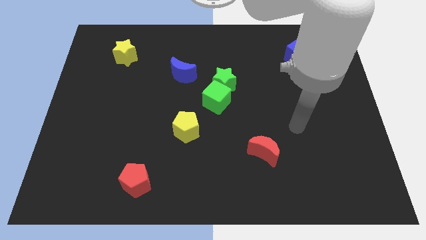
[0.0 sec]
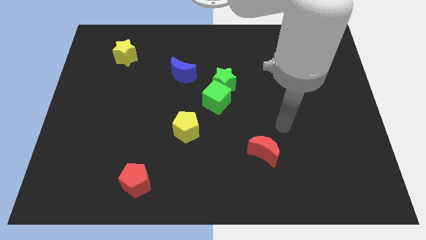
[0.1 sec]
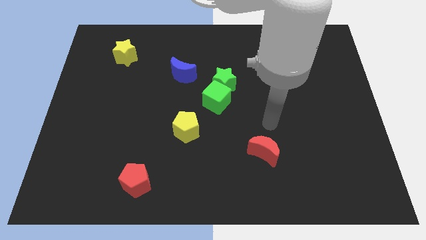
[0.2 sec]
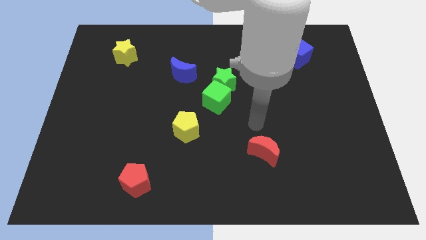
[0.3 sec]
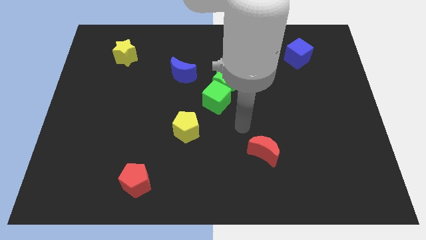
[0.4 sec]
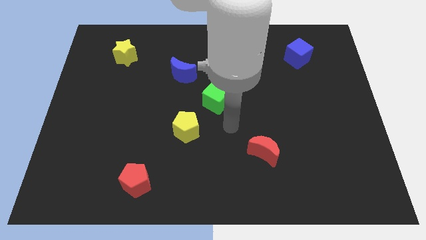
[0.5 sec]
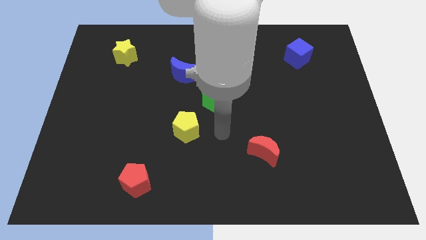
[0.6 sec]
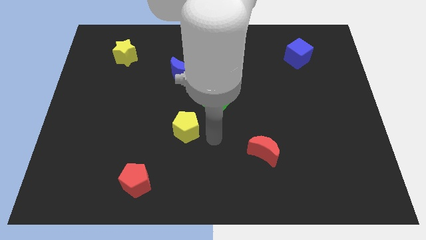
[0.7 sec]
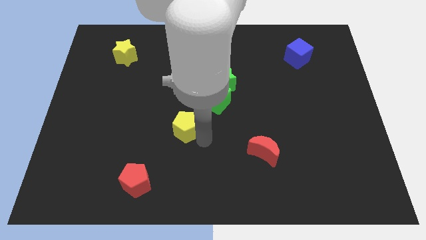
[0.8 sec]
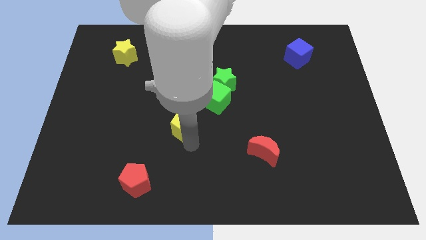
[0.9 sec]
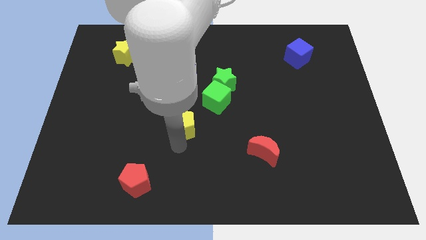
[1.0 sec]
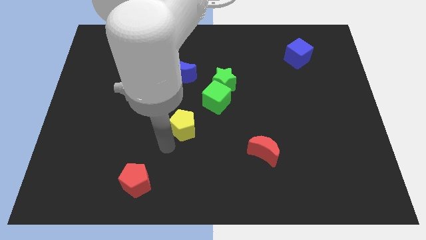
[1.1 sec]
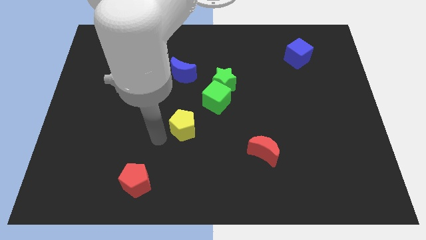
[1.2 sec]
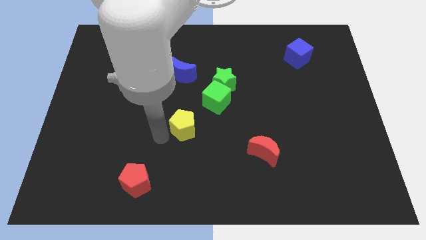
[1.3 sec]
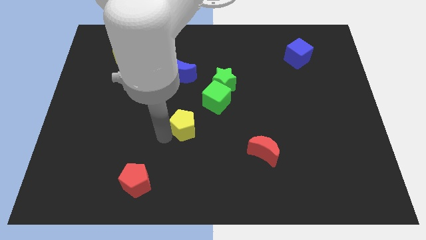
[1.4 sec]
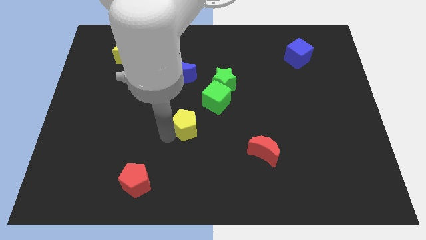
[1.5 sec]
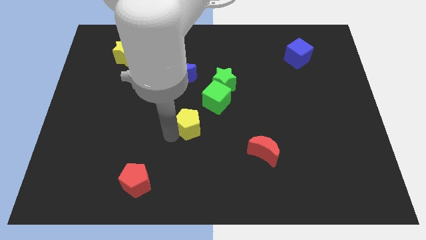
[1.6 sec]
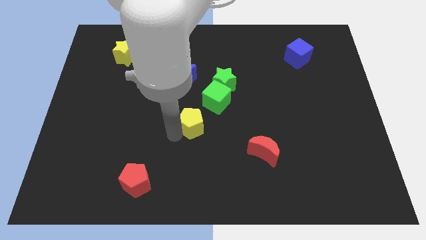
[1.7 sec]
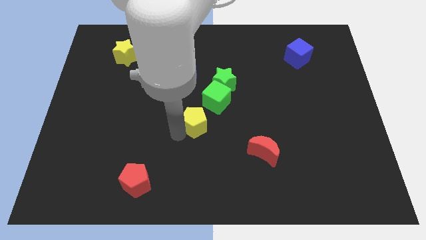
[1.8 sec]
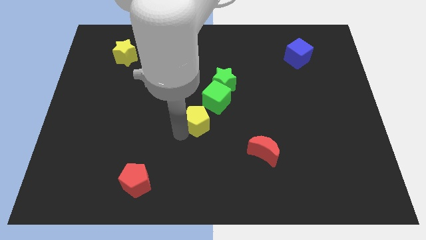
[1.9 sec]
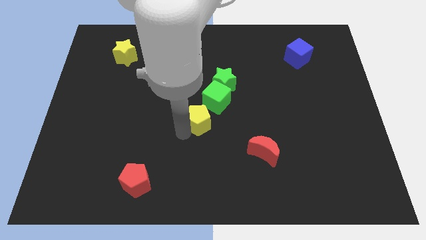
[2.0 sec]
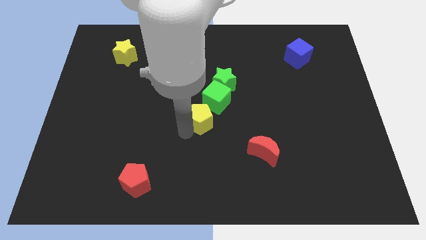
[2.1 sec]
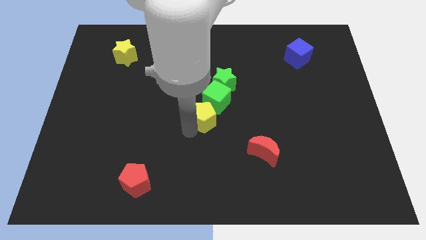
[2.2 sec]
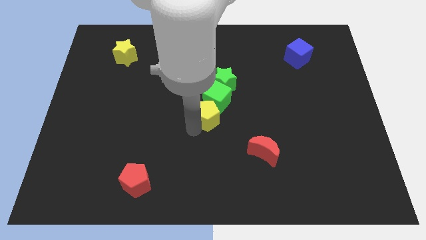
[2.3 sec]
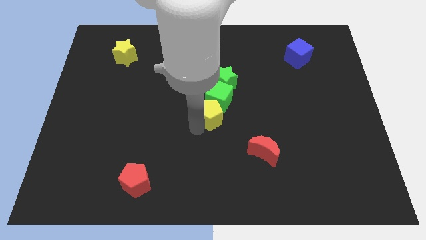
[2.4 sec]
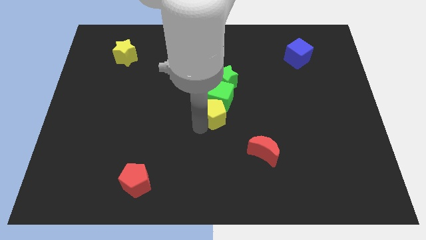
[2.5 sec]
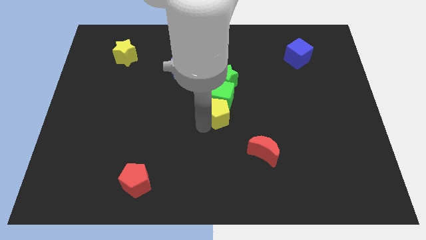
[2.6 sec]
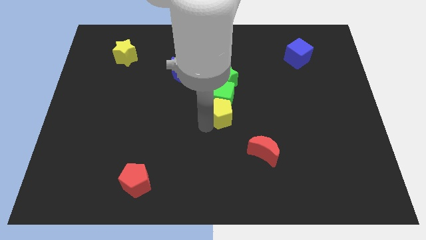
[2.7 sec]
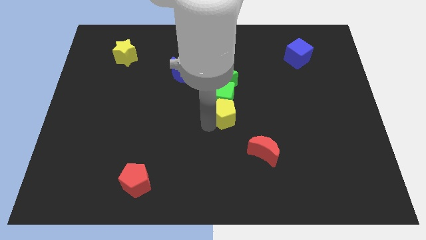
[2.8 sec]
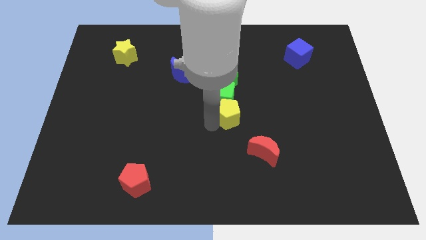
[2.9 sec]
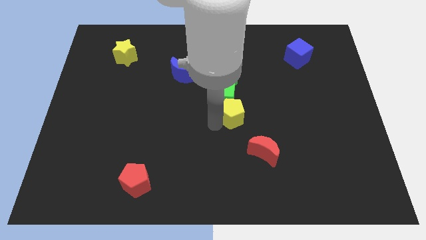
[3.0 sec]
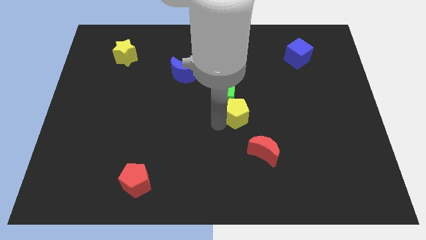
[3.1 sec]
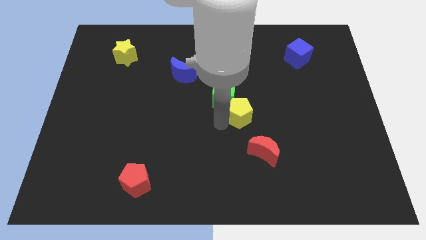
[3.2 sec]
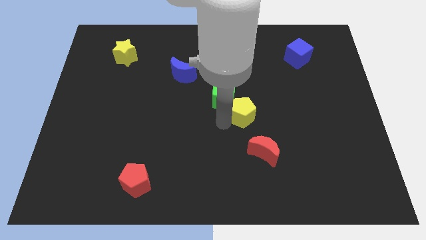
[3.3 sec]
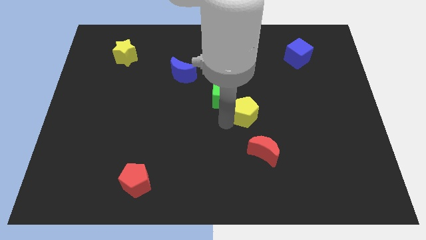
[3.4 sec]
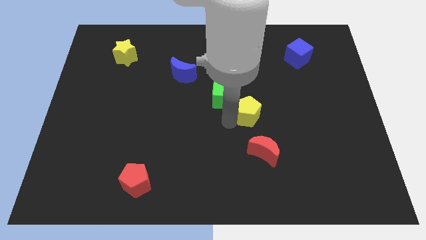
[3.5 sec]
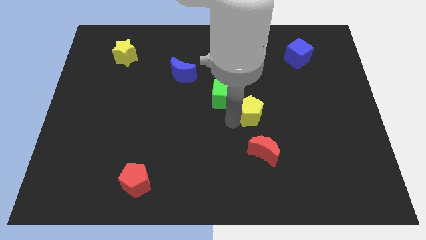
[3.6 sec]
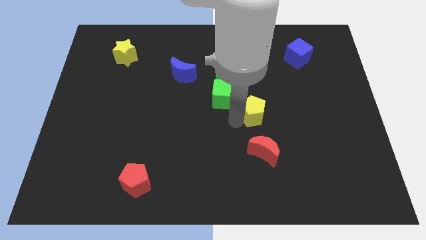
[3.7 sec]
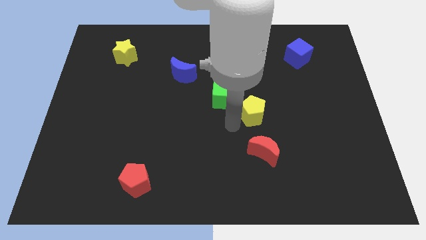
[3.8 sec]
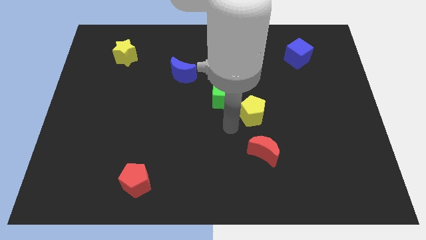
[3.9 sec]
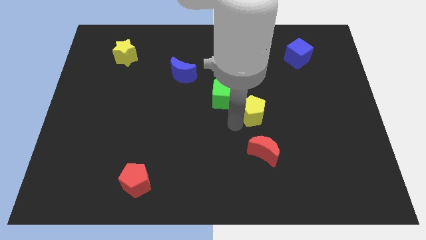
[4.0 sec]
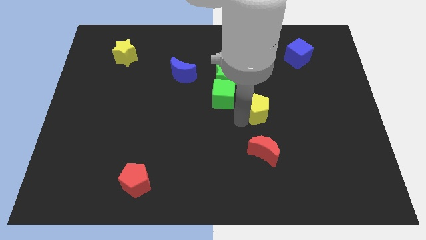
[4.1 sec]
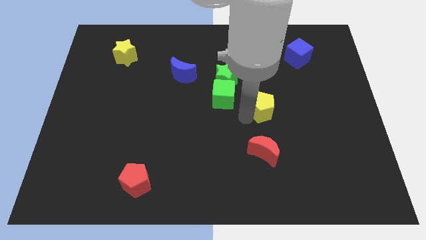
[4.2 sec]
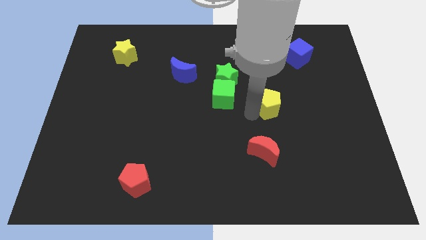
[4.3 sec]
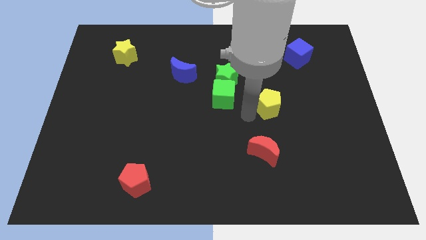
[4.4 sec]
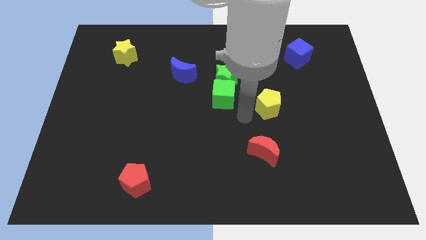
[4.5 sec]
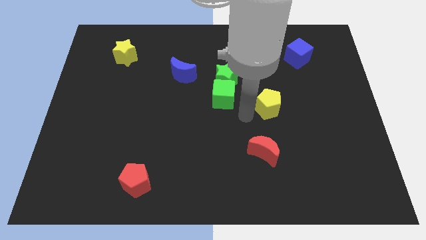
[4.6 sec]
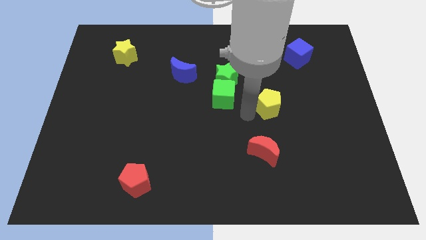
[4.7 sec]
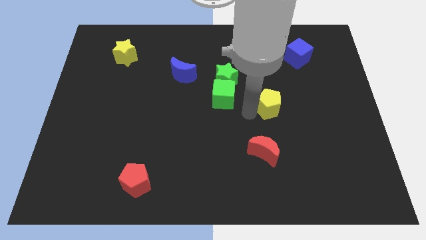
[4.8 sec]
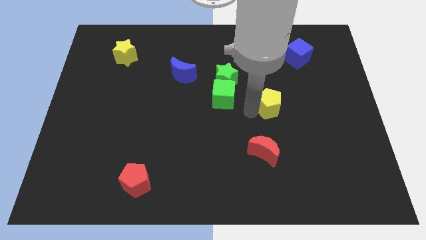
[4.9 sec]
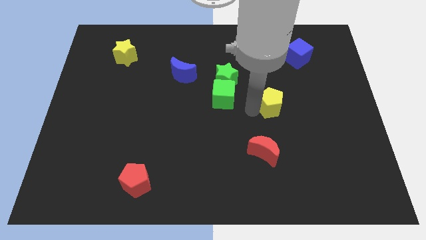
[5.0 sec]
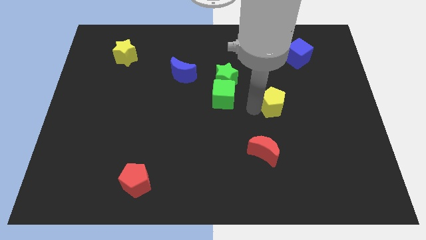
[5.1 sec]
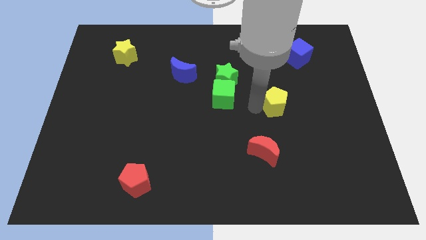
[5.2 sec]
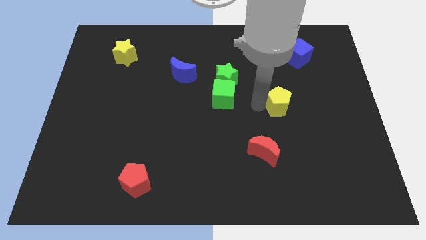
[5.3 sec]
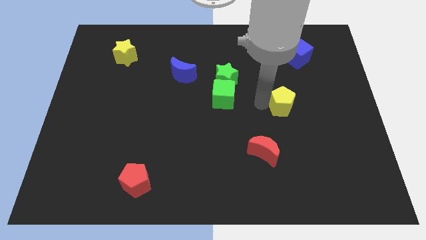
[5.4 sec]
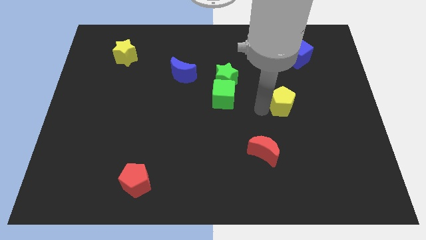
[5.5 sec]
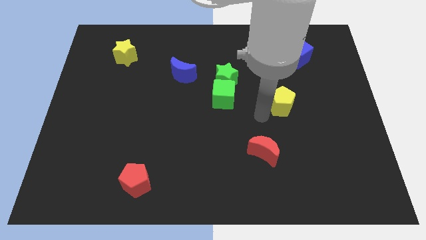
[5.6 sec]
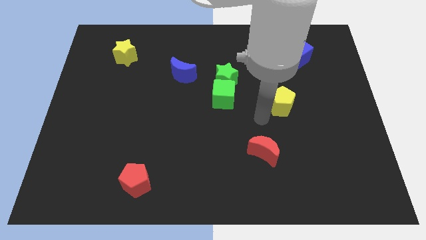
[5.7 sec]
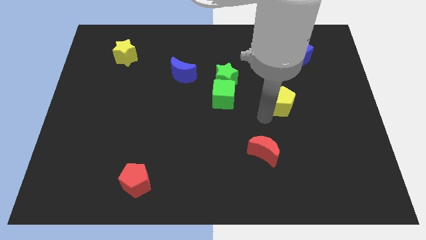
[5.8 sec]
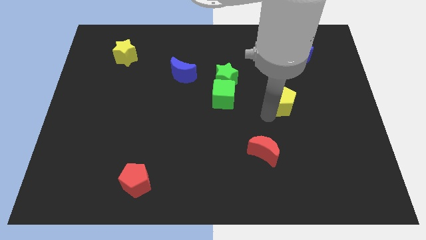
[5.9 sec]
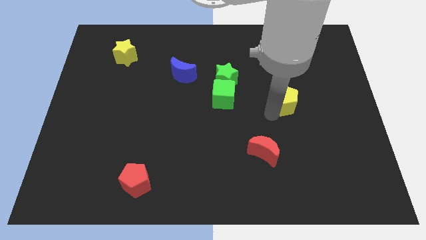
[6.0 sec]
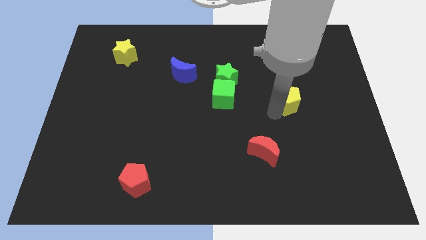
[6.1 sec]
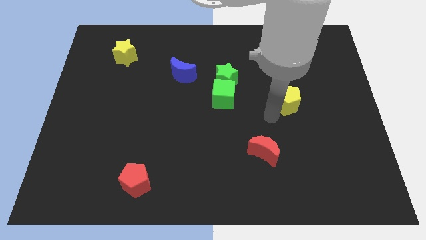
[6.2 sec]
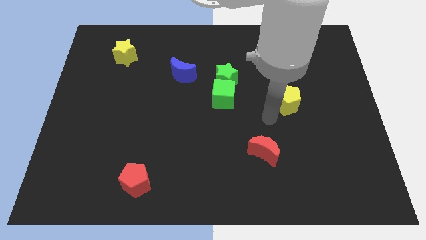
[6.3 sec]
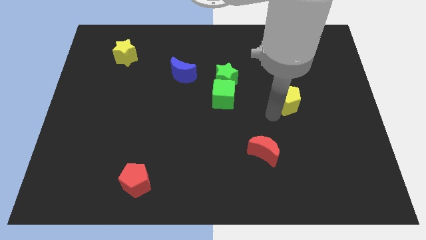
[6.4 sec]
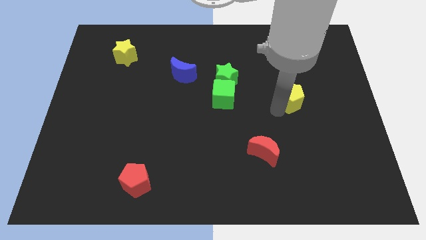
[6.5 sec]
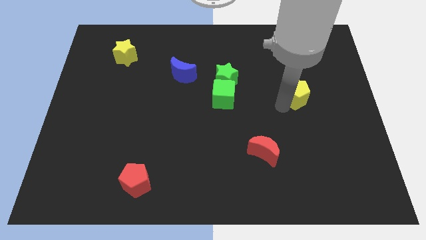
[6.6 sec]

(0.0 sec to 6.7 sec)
put the yellow pentagon below the blue cube
